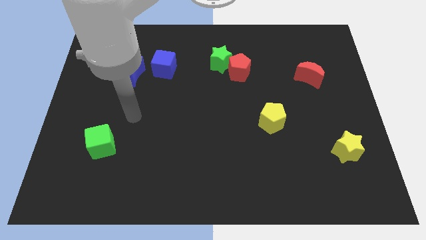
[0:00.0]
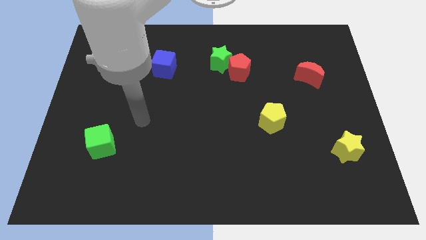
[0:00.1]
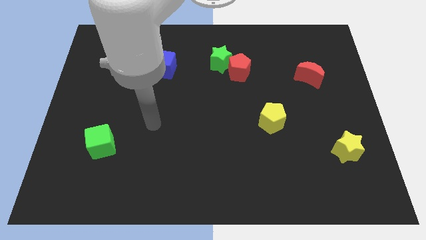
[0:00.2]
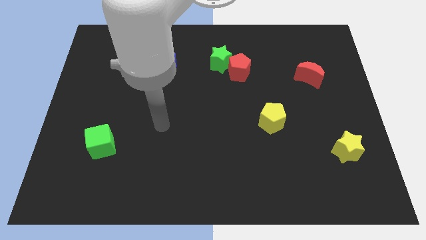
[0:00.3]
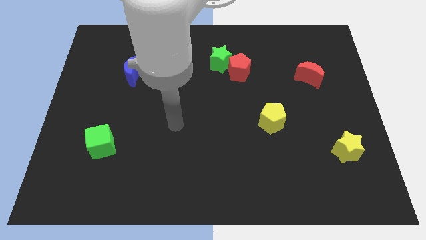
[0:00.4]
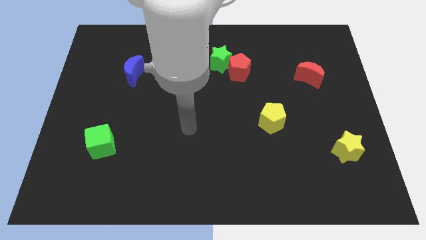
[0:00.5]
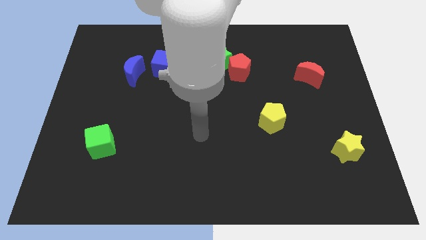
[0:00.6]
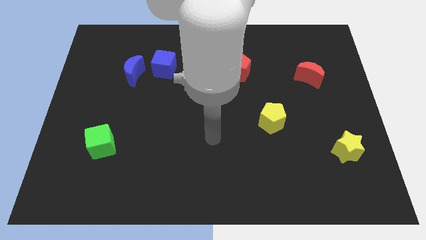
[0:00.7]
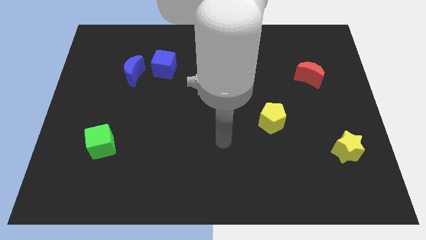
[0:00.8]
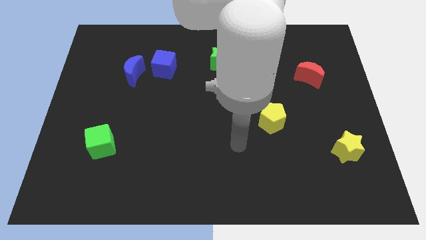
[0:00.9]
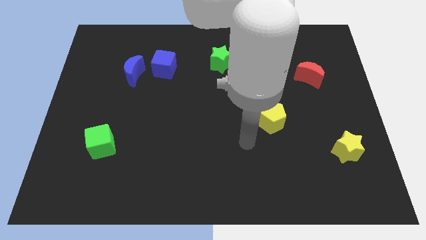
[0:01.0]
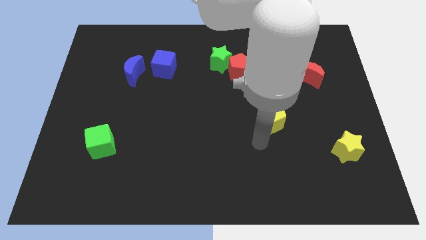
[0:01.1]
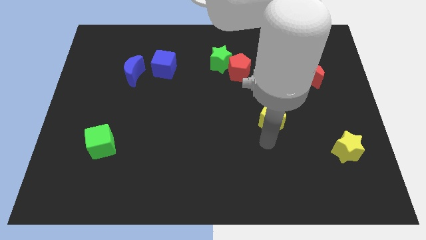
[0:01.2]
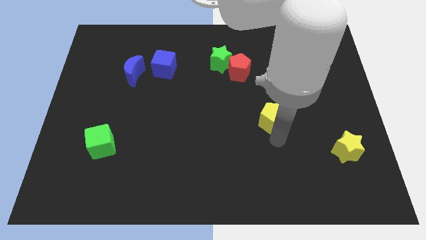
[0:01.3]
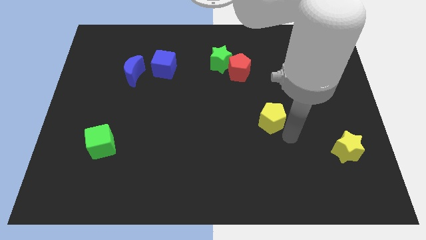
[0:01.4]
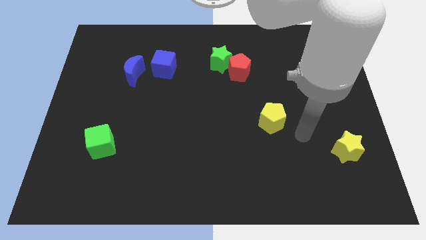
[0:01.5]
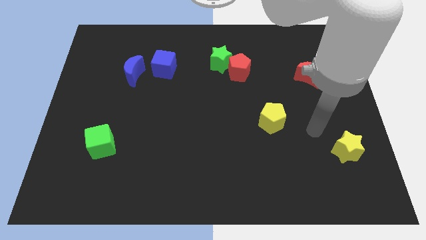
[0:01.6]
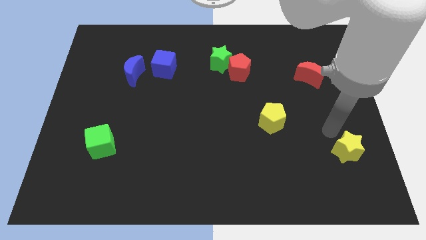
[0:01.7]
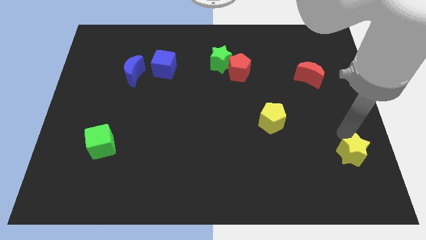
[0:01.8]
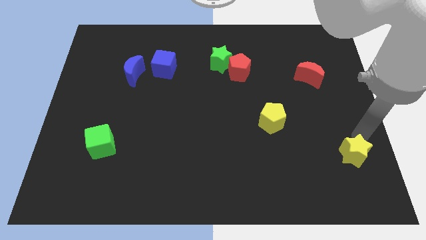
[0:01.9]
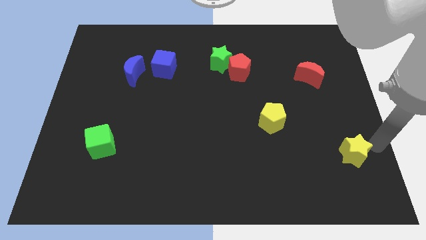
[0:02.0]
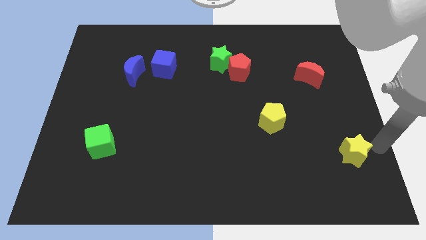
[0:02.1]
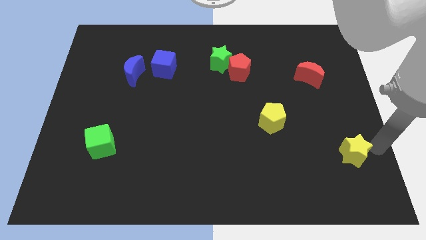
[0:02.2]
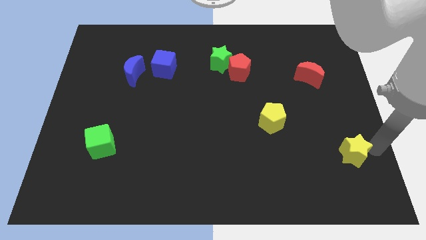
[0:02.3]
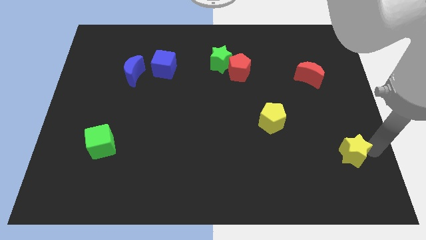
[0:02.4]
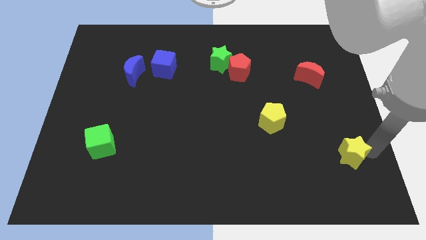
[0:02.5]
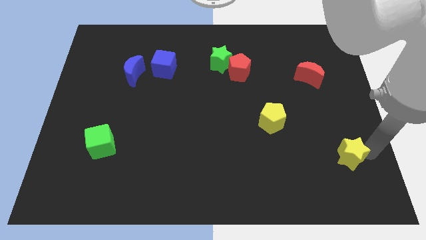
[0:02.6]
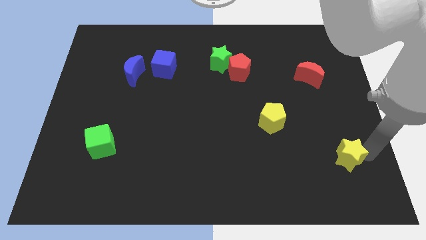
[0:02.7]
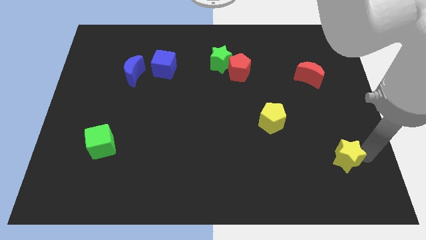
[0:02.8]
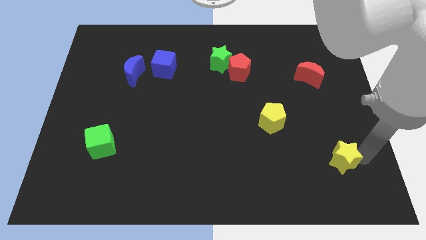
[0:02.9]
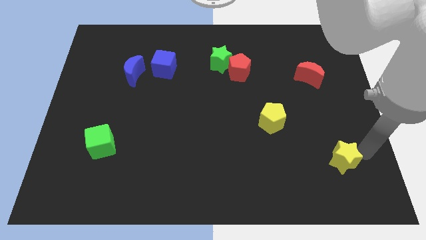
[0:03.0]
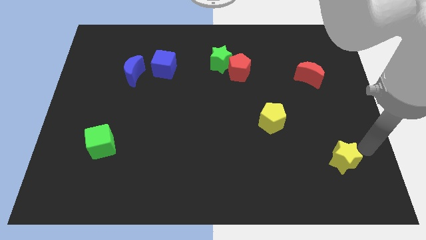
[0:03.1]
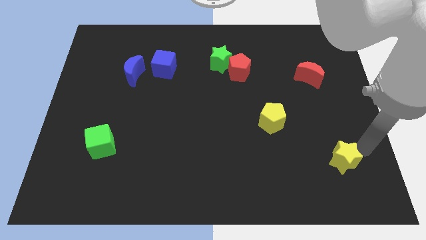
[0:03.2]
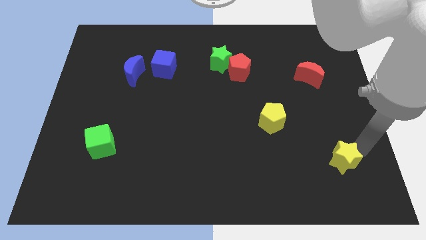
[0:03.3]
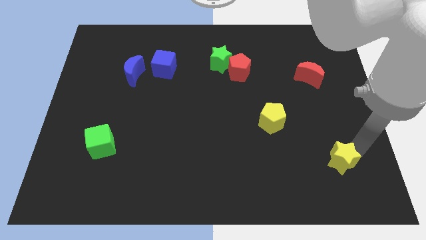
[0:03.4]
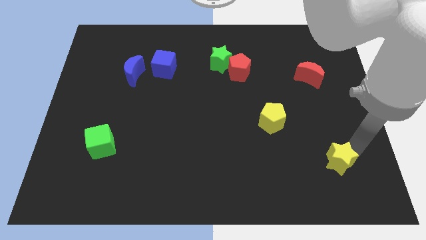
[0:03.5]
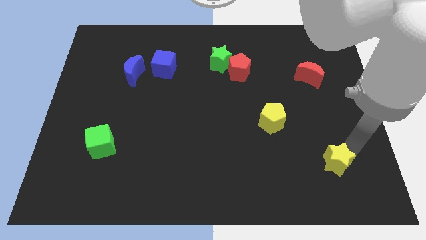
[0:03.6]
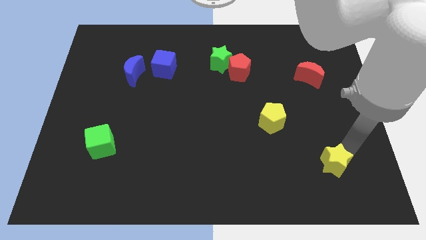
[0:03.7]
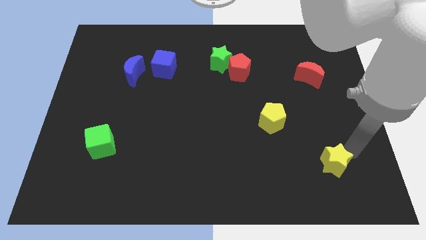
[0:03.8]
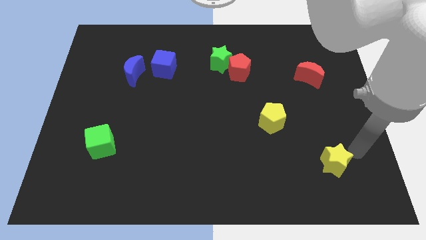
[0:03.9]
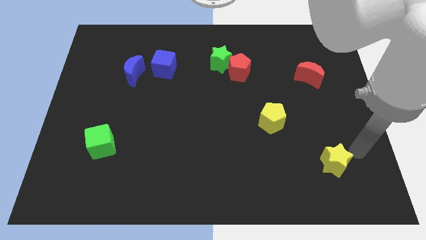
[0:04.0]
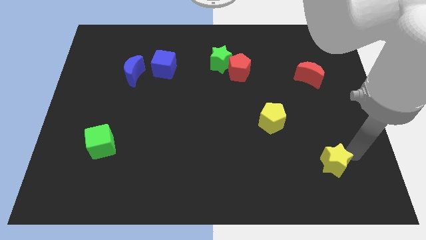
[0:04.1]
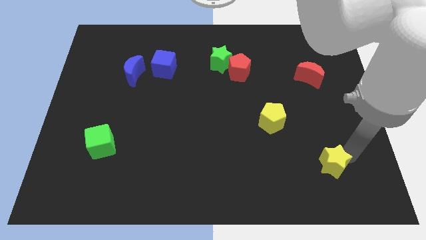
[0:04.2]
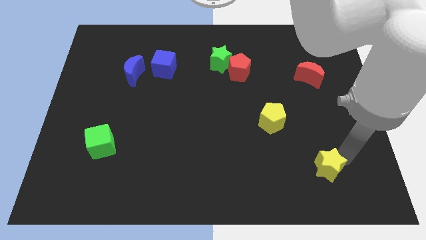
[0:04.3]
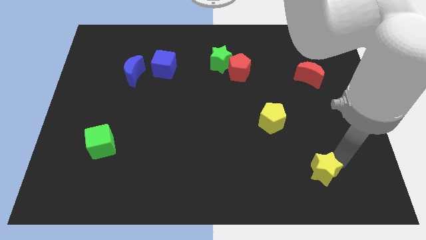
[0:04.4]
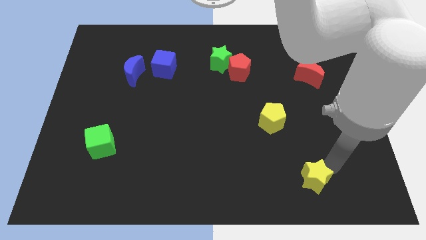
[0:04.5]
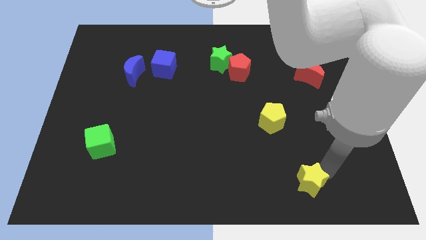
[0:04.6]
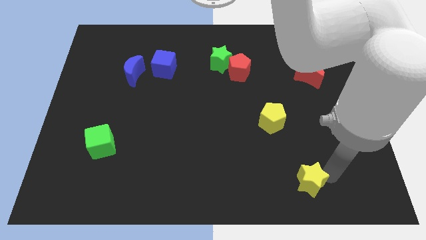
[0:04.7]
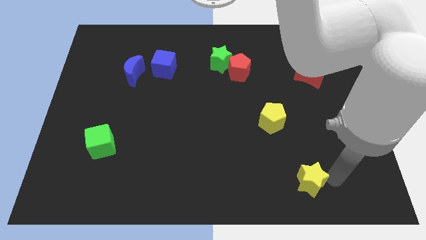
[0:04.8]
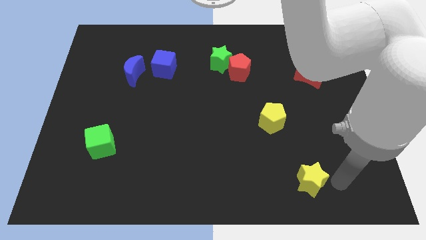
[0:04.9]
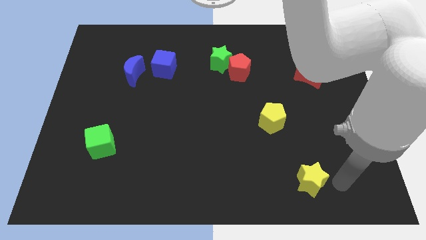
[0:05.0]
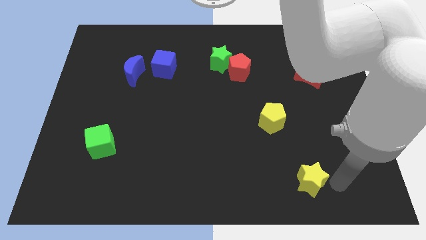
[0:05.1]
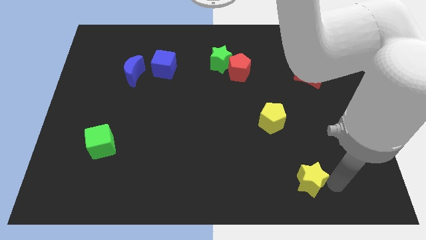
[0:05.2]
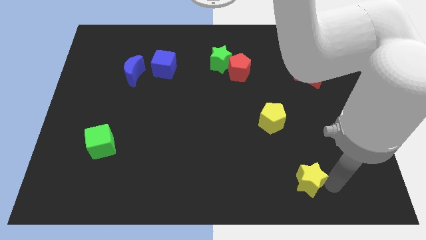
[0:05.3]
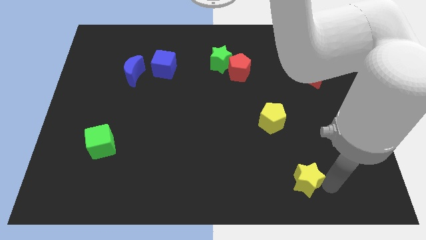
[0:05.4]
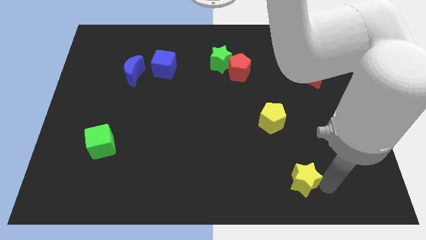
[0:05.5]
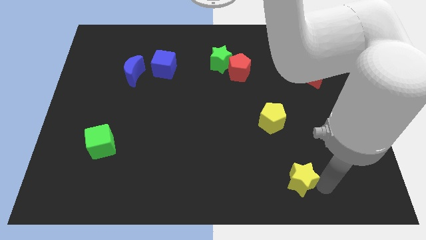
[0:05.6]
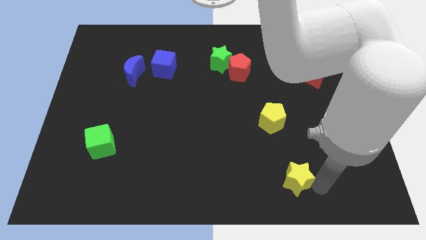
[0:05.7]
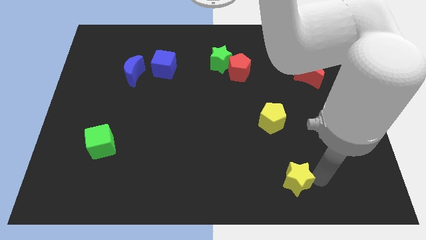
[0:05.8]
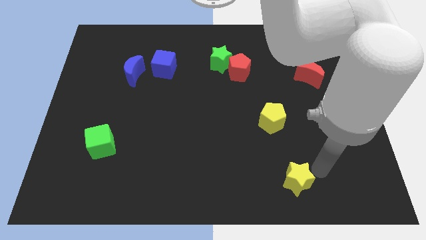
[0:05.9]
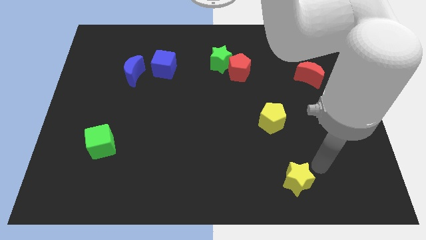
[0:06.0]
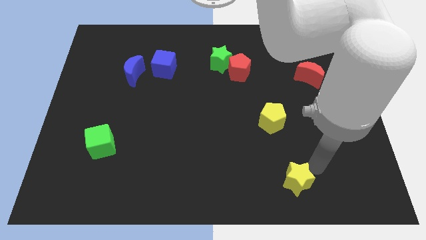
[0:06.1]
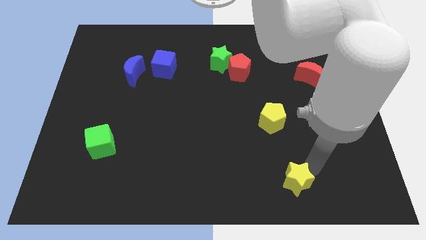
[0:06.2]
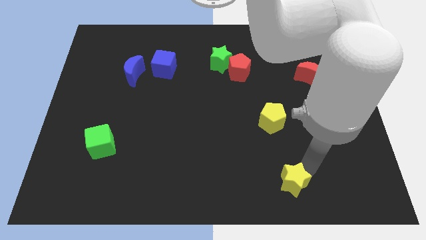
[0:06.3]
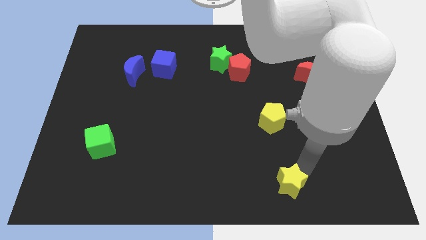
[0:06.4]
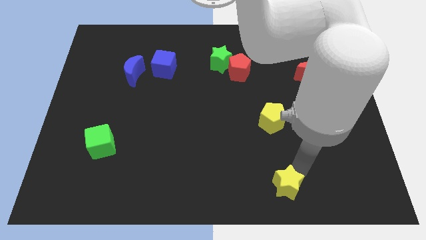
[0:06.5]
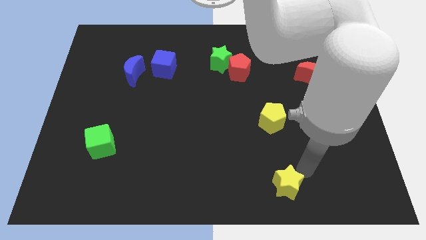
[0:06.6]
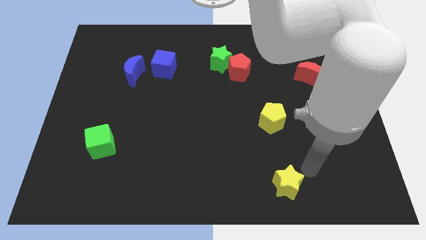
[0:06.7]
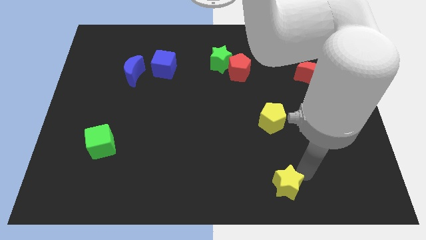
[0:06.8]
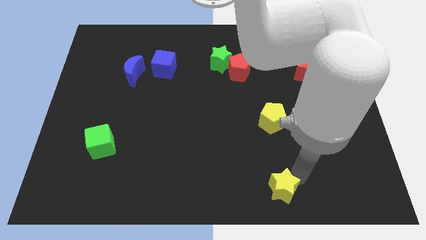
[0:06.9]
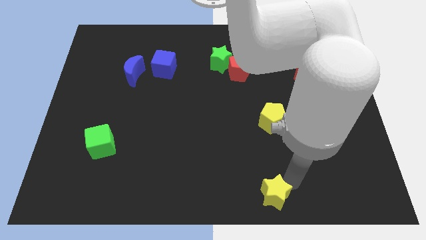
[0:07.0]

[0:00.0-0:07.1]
slide the yellow star to the bottom
